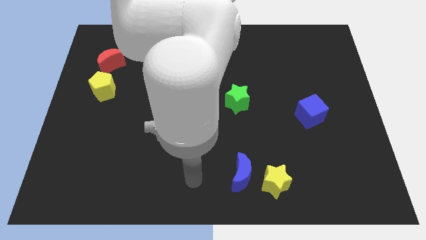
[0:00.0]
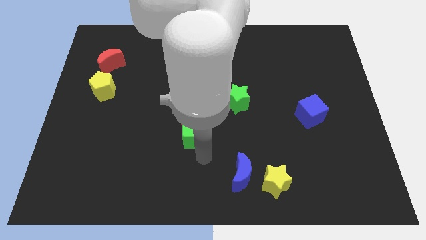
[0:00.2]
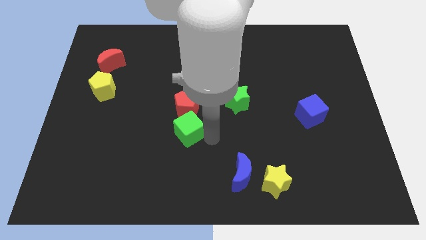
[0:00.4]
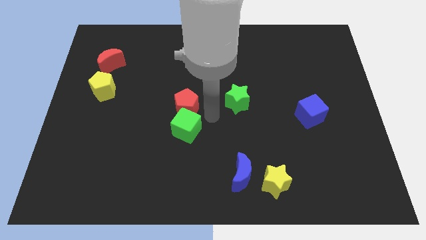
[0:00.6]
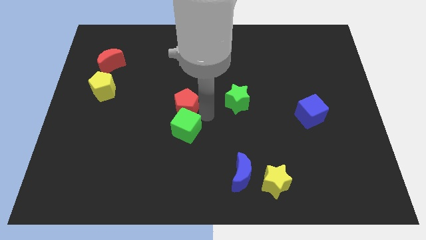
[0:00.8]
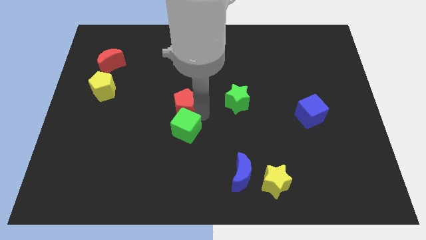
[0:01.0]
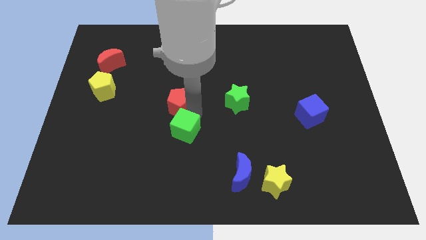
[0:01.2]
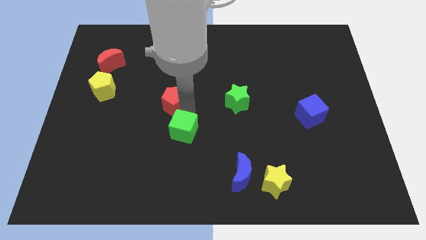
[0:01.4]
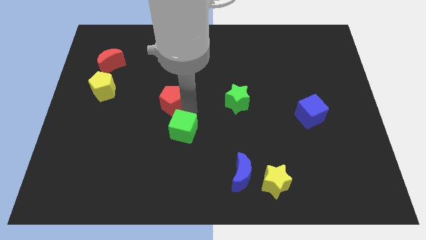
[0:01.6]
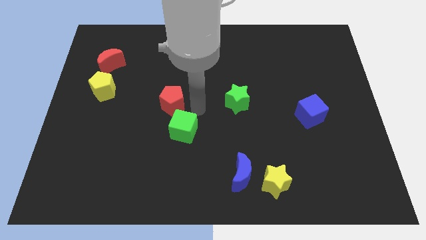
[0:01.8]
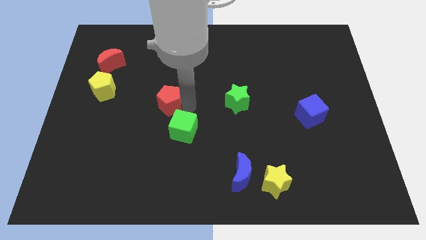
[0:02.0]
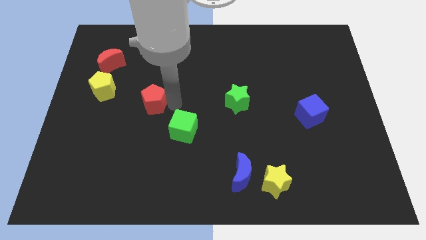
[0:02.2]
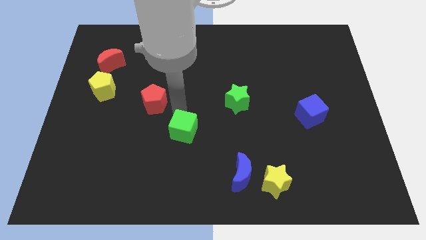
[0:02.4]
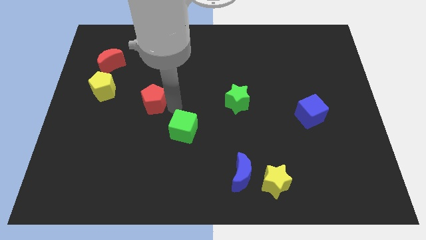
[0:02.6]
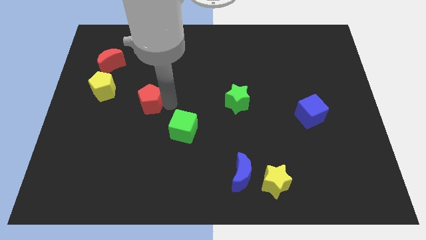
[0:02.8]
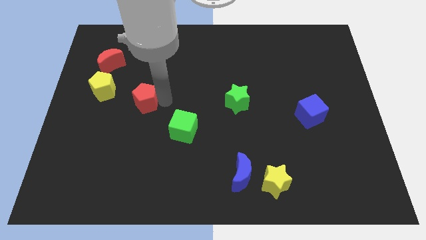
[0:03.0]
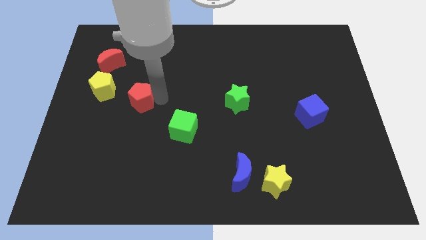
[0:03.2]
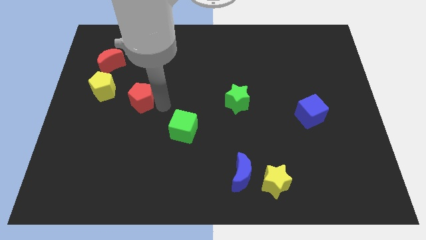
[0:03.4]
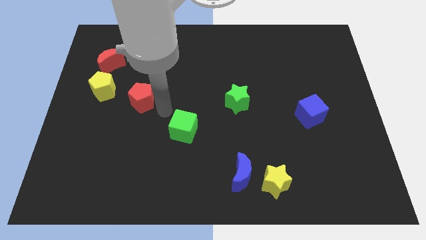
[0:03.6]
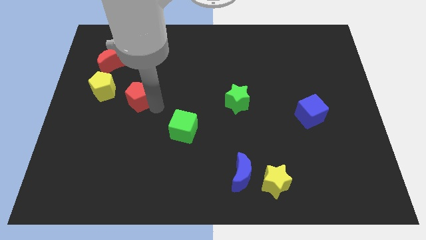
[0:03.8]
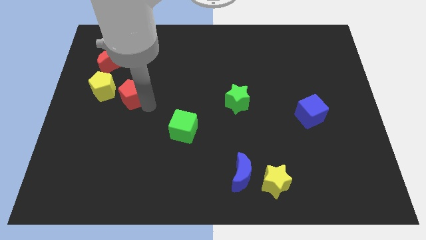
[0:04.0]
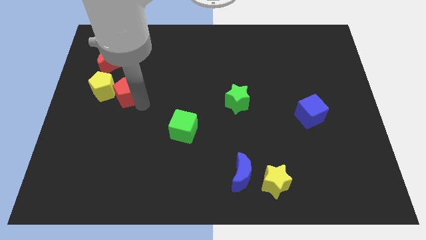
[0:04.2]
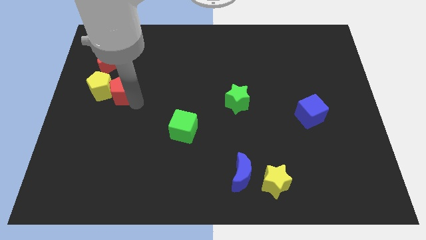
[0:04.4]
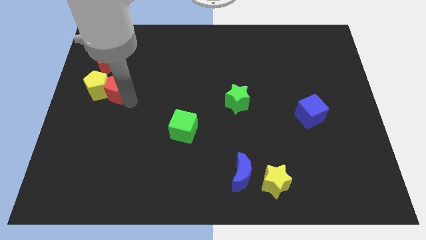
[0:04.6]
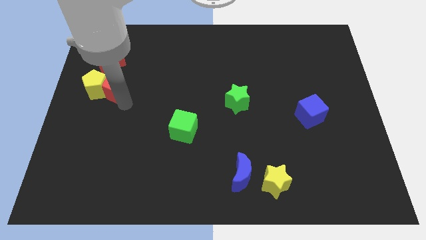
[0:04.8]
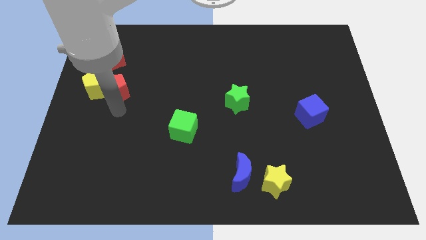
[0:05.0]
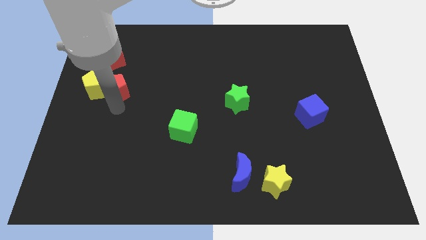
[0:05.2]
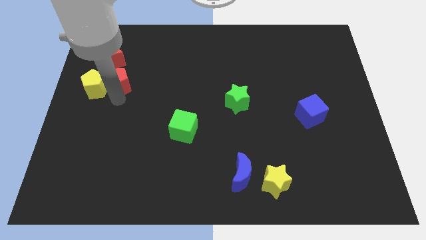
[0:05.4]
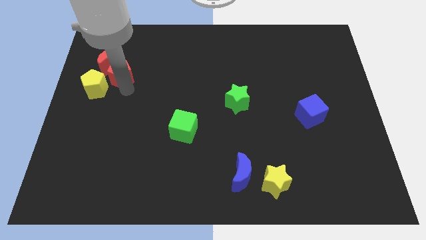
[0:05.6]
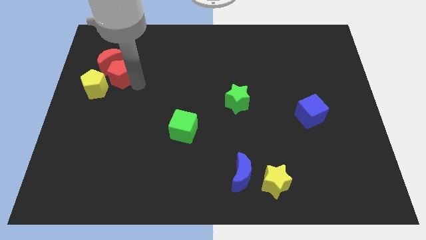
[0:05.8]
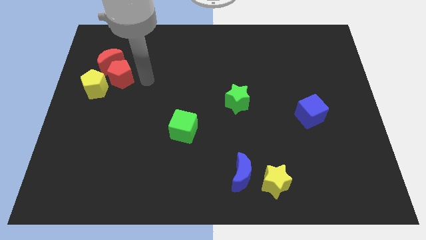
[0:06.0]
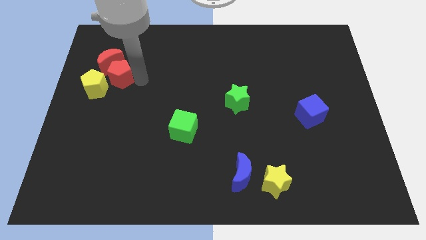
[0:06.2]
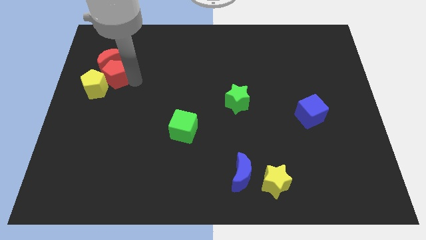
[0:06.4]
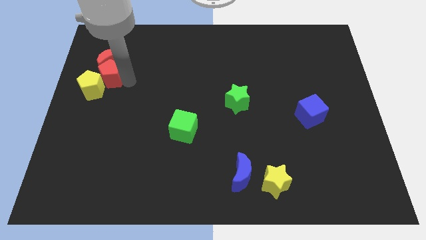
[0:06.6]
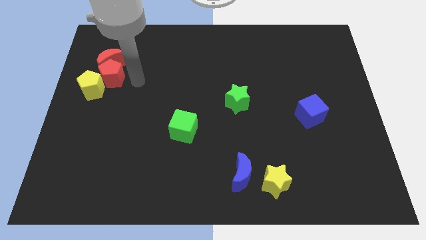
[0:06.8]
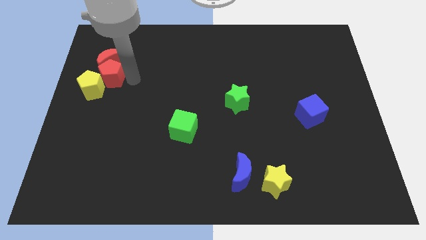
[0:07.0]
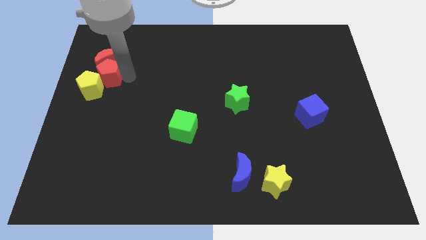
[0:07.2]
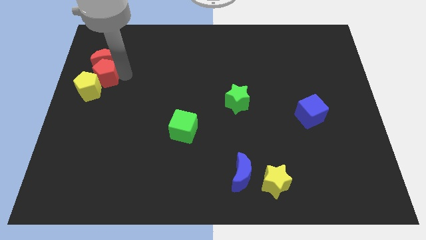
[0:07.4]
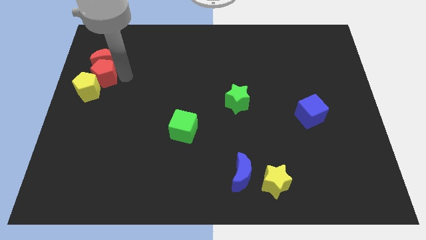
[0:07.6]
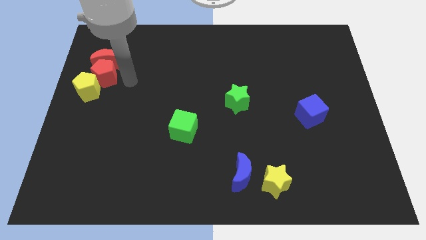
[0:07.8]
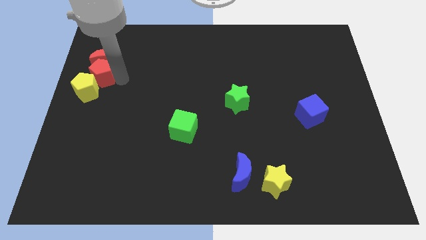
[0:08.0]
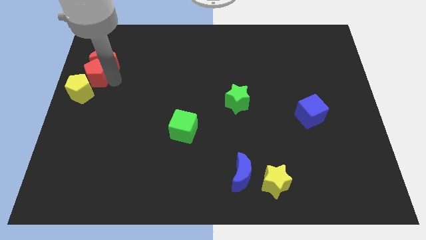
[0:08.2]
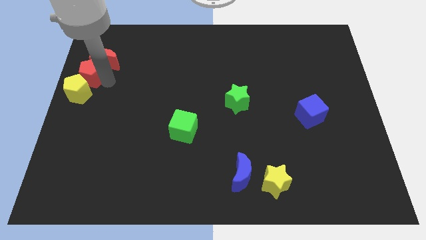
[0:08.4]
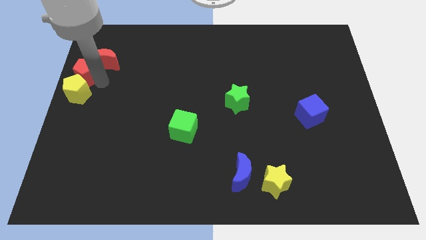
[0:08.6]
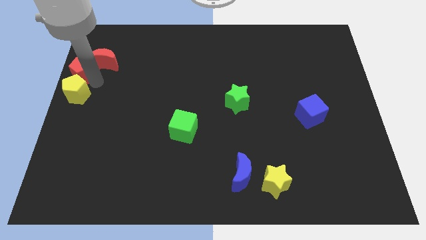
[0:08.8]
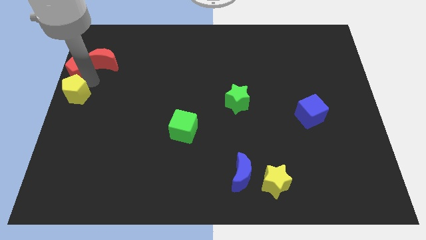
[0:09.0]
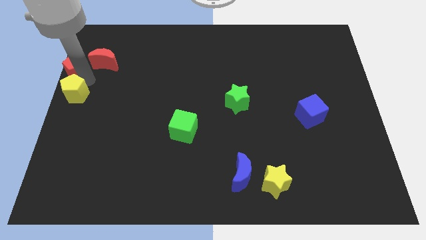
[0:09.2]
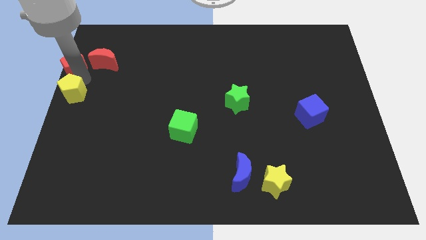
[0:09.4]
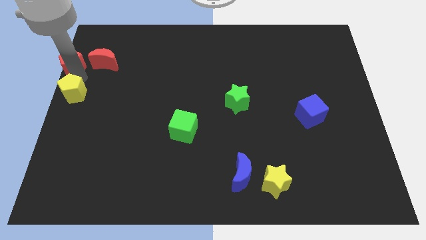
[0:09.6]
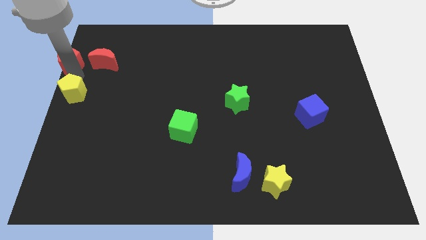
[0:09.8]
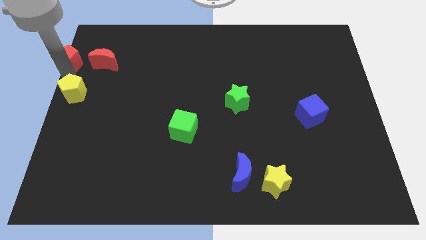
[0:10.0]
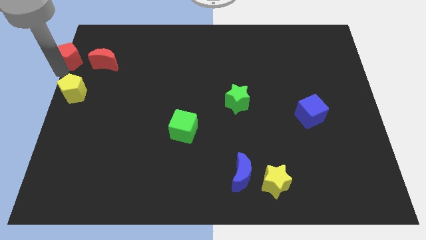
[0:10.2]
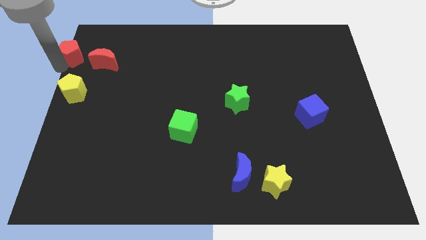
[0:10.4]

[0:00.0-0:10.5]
push the red pentagon to the top left

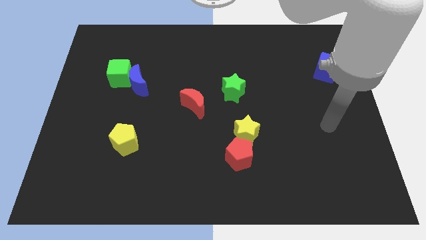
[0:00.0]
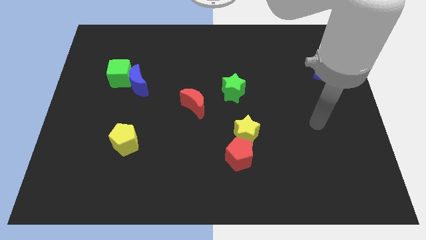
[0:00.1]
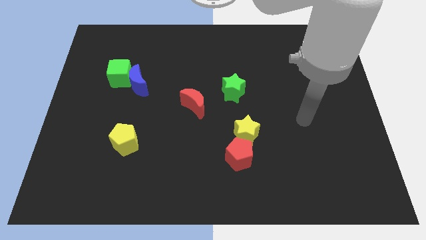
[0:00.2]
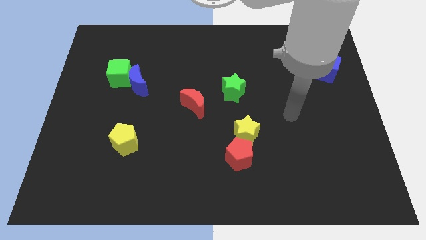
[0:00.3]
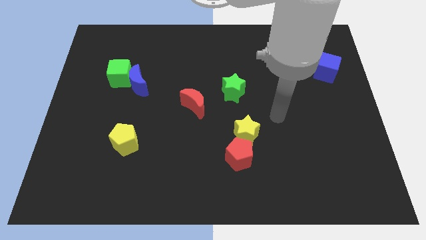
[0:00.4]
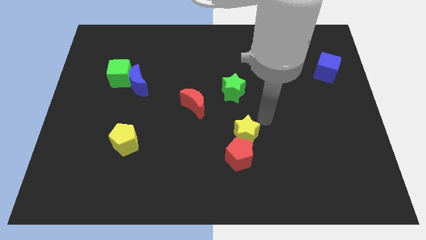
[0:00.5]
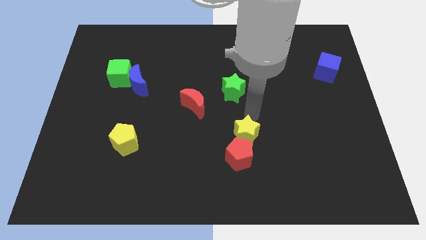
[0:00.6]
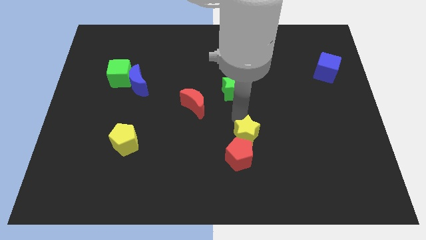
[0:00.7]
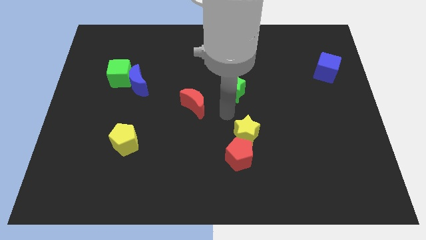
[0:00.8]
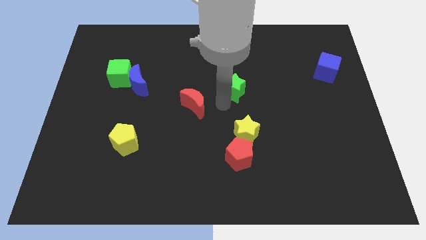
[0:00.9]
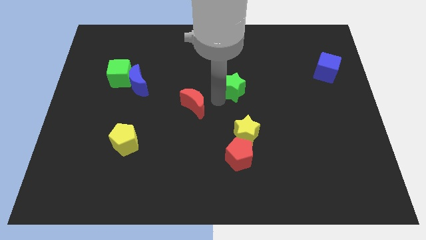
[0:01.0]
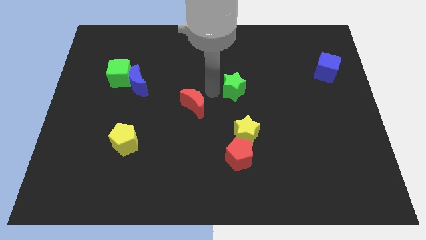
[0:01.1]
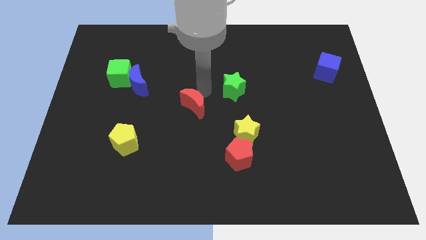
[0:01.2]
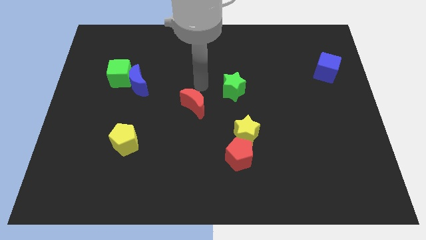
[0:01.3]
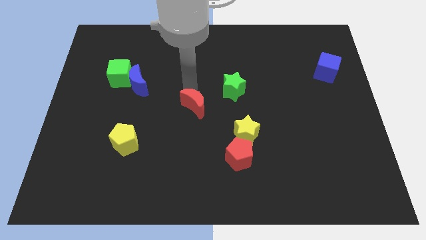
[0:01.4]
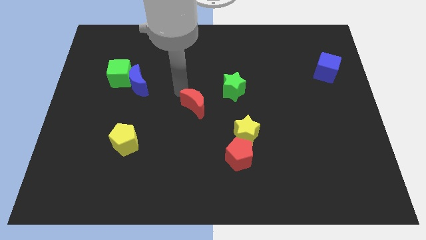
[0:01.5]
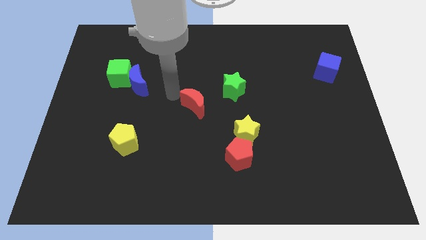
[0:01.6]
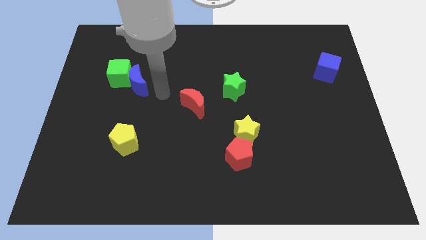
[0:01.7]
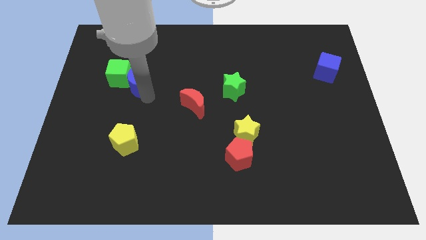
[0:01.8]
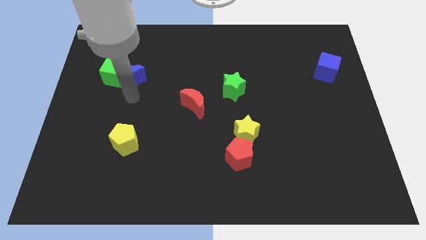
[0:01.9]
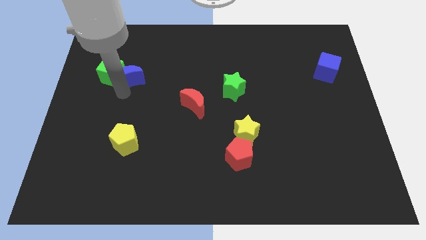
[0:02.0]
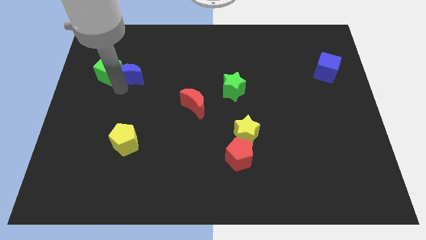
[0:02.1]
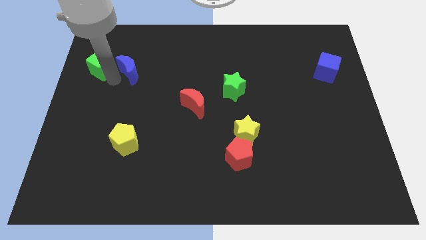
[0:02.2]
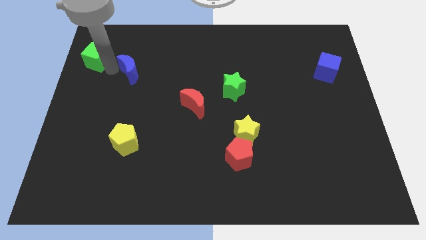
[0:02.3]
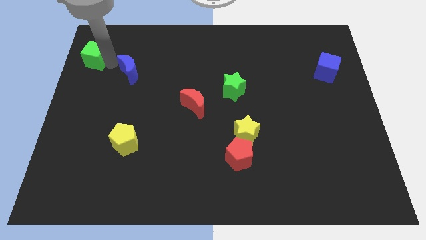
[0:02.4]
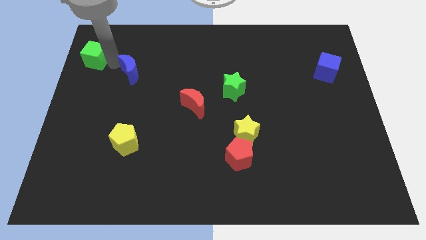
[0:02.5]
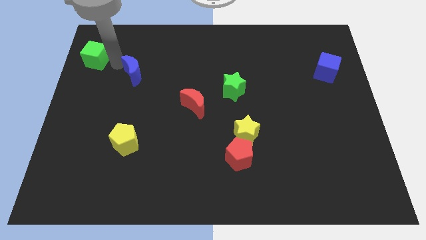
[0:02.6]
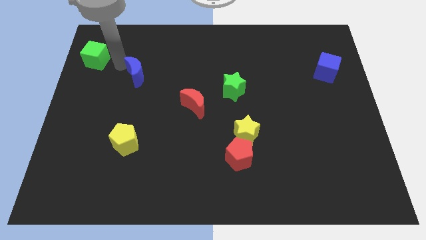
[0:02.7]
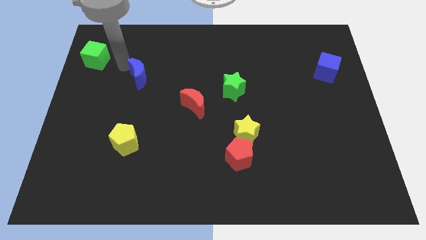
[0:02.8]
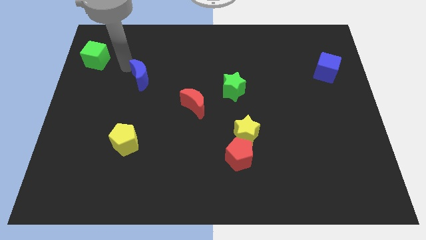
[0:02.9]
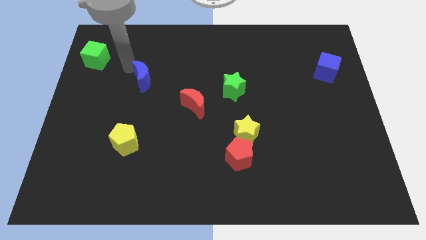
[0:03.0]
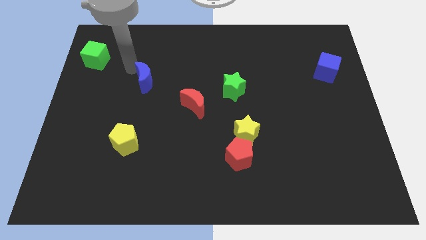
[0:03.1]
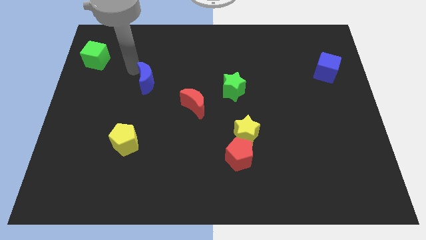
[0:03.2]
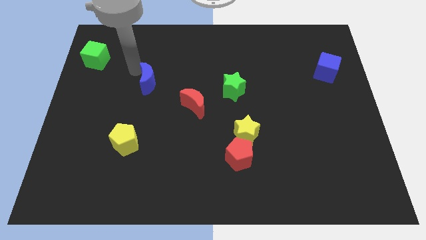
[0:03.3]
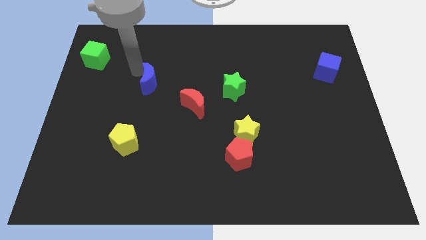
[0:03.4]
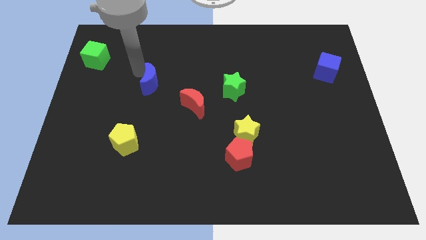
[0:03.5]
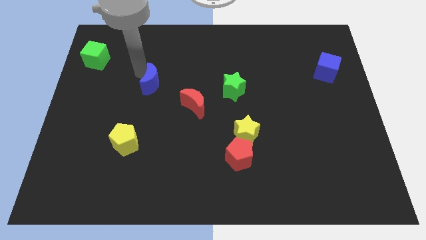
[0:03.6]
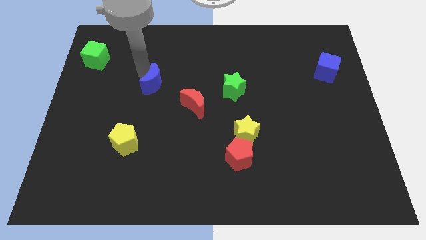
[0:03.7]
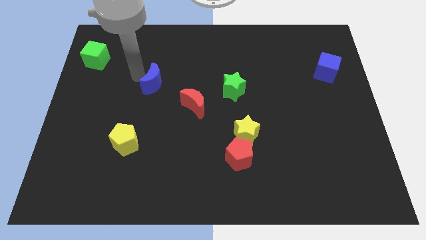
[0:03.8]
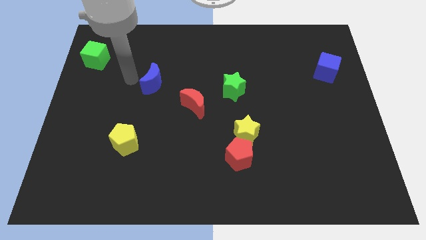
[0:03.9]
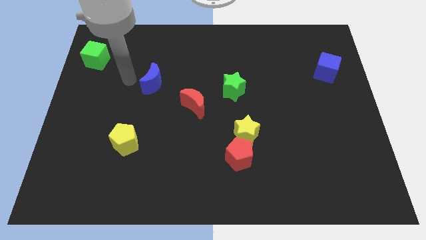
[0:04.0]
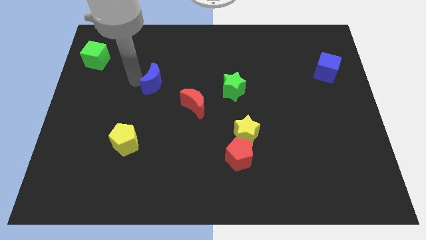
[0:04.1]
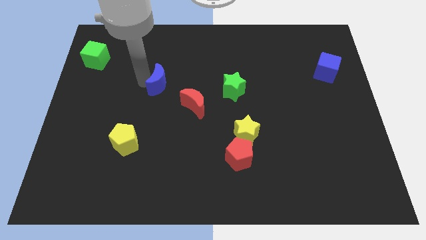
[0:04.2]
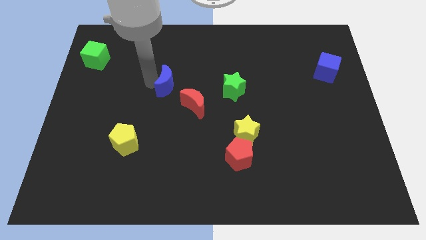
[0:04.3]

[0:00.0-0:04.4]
move the blue moon to the center
